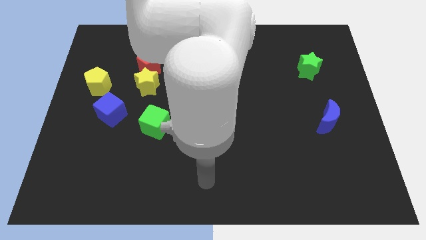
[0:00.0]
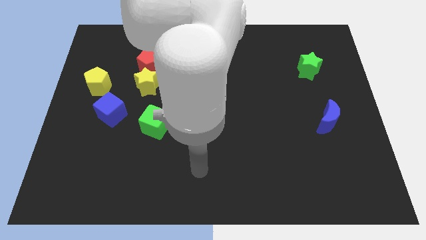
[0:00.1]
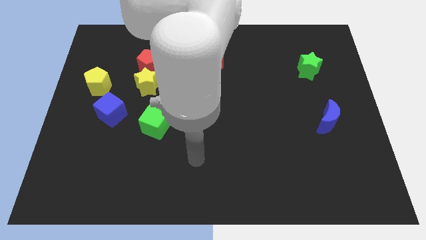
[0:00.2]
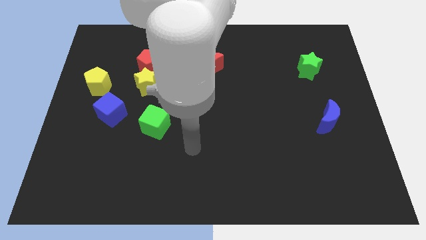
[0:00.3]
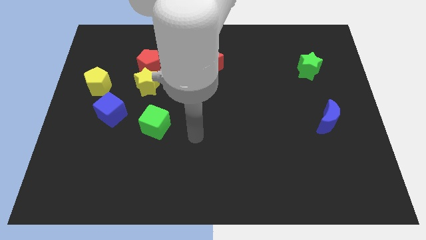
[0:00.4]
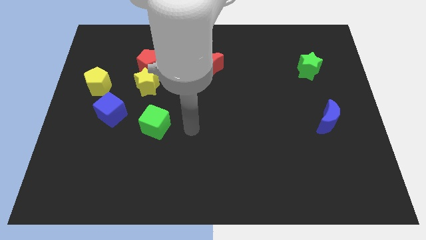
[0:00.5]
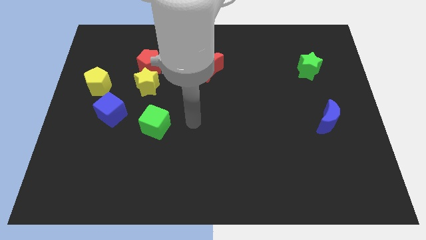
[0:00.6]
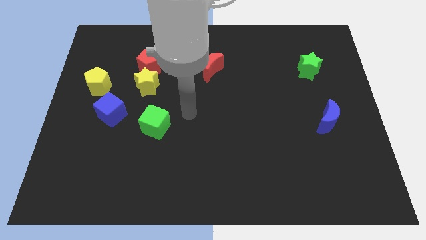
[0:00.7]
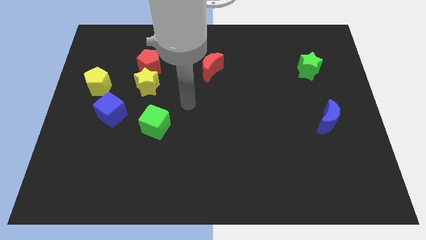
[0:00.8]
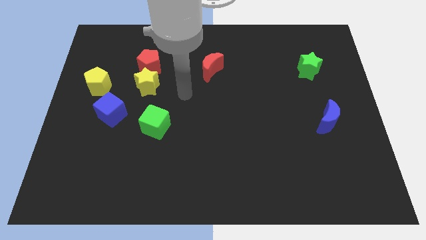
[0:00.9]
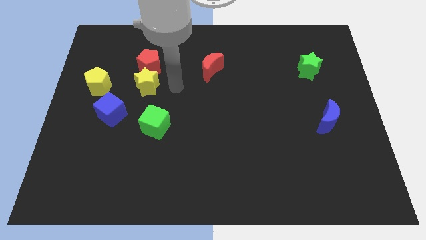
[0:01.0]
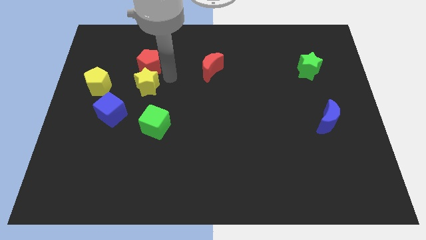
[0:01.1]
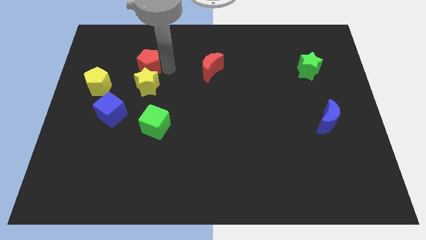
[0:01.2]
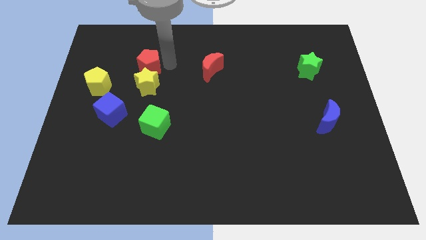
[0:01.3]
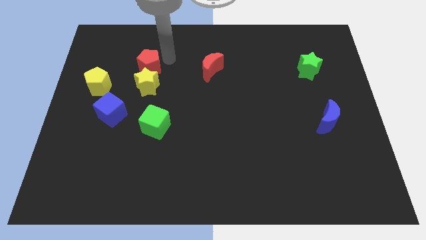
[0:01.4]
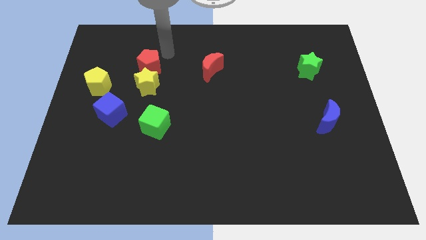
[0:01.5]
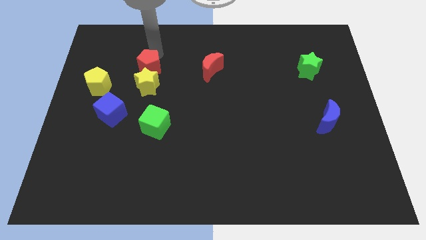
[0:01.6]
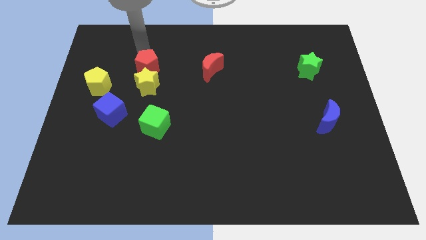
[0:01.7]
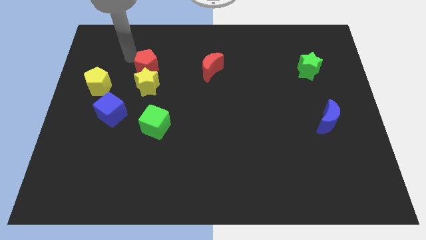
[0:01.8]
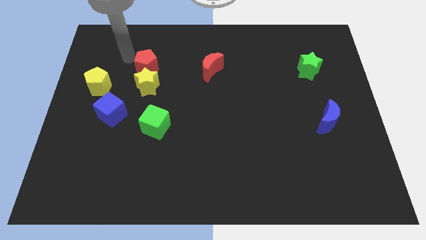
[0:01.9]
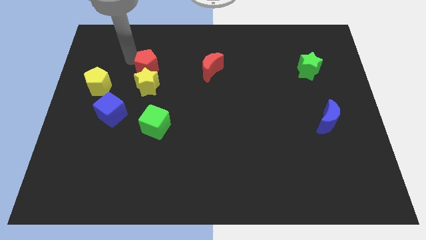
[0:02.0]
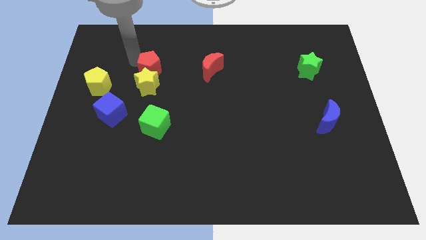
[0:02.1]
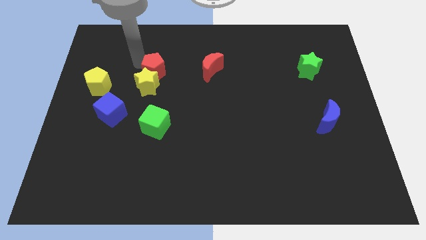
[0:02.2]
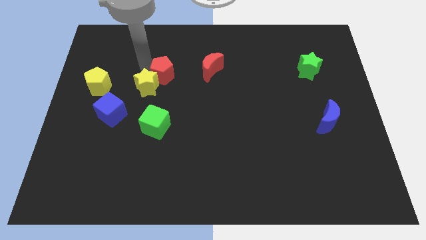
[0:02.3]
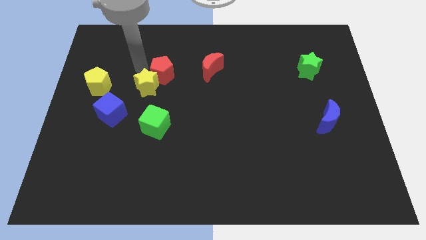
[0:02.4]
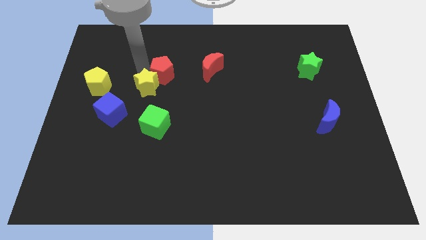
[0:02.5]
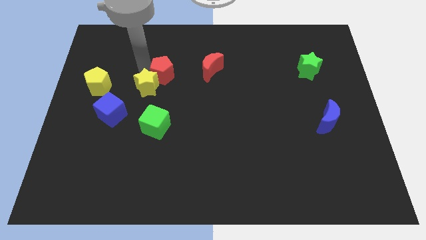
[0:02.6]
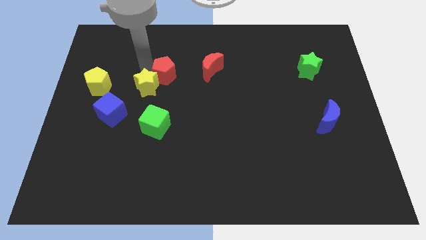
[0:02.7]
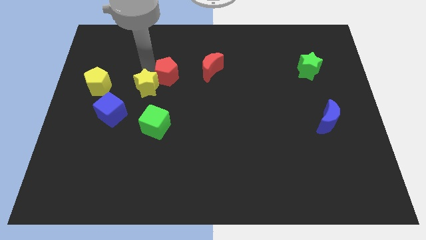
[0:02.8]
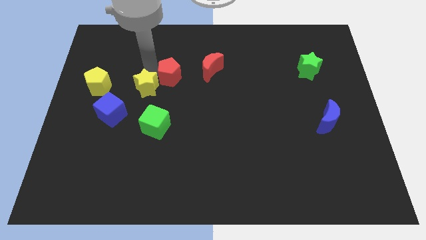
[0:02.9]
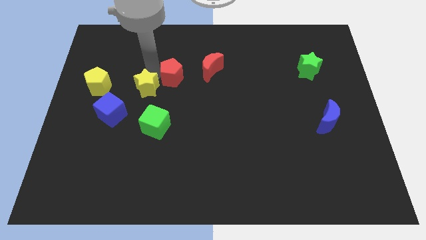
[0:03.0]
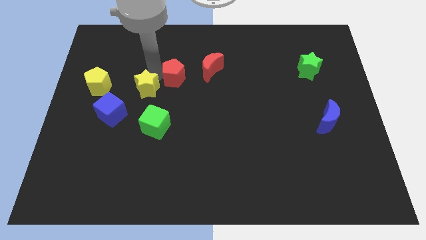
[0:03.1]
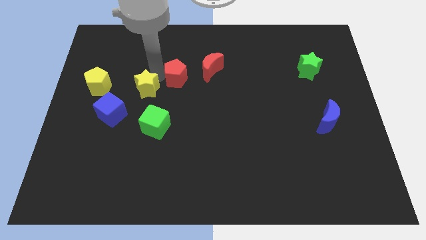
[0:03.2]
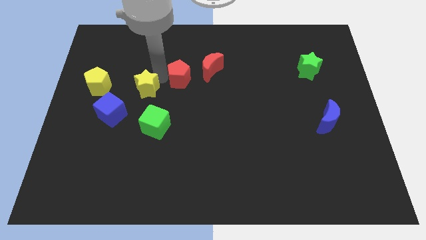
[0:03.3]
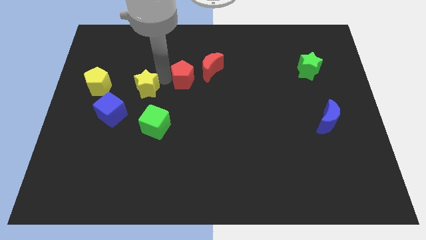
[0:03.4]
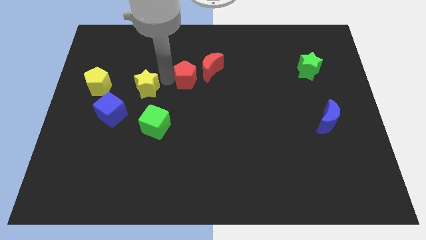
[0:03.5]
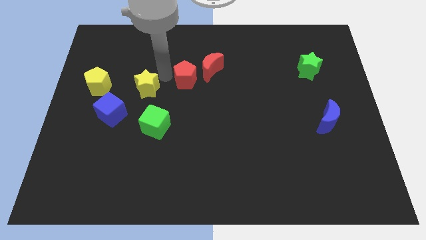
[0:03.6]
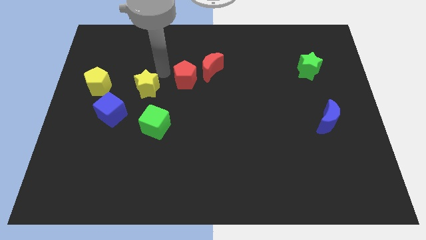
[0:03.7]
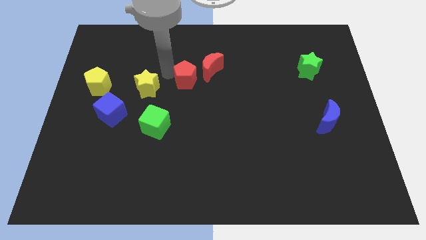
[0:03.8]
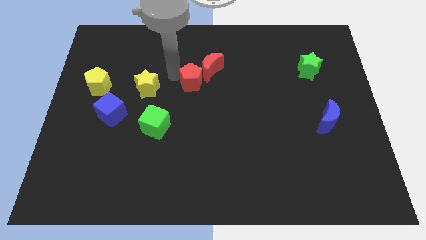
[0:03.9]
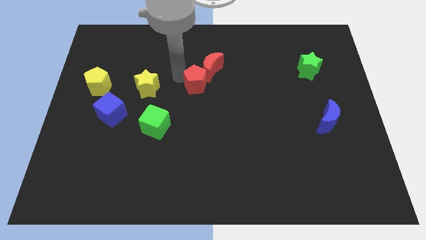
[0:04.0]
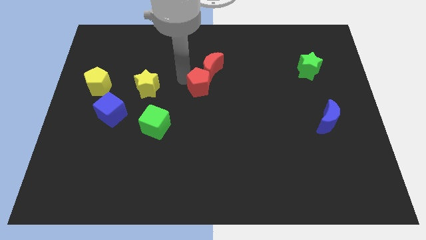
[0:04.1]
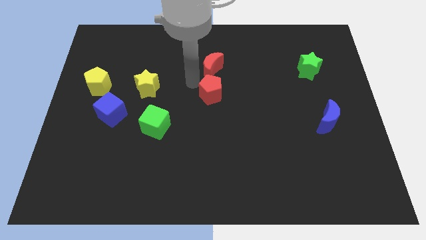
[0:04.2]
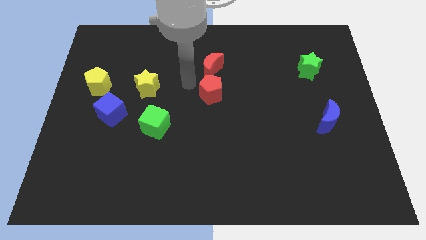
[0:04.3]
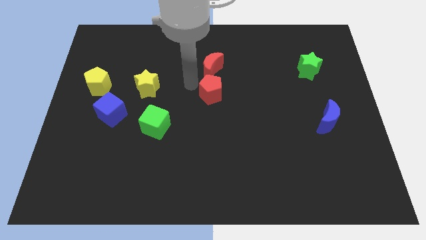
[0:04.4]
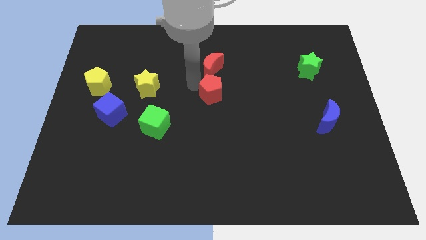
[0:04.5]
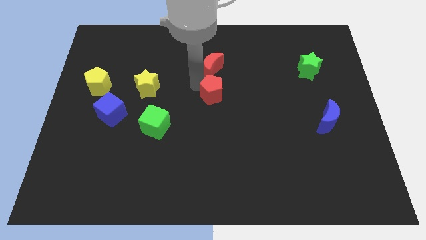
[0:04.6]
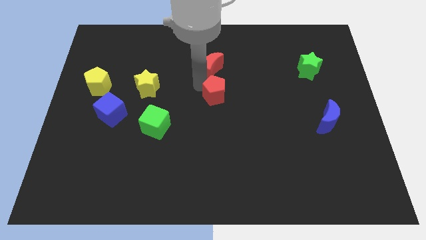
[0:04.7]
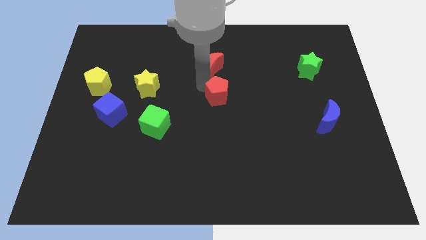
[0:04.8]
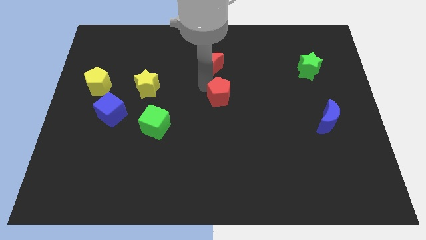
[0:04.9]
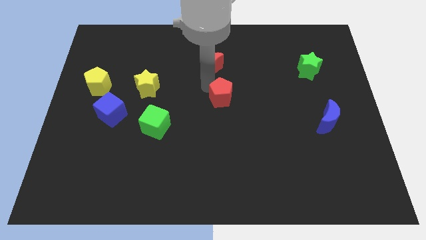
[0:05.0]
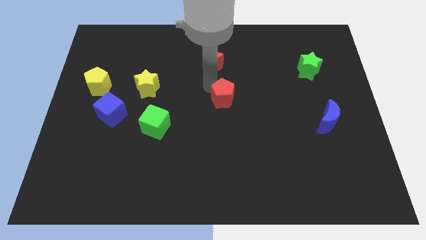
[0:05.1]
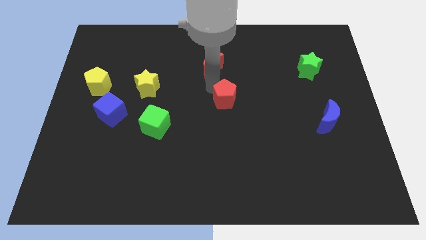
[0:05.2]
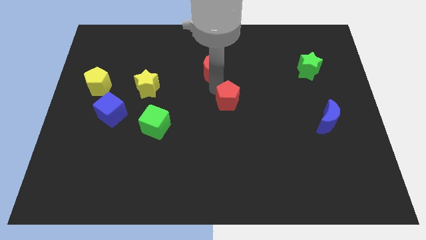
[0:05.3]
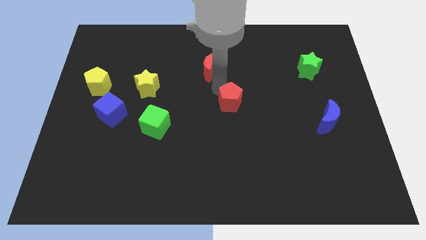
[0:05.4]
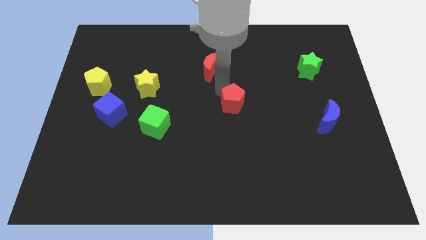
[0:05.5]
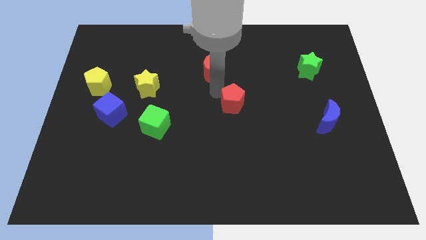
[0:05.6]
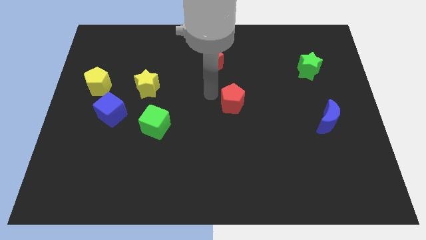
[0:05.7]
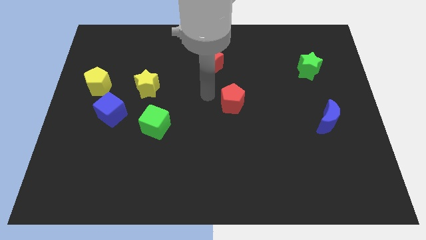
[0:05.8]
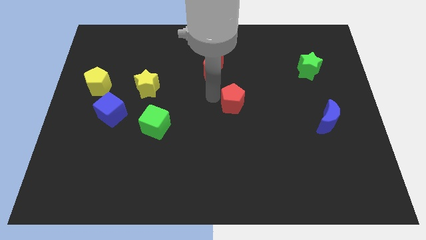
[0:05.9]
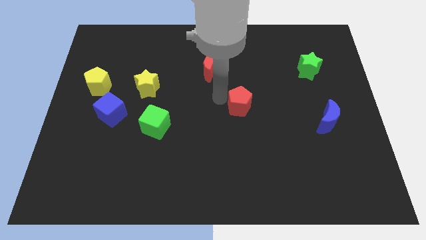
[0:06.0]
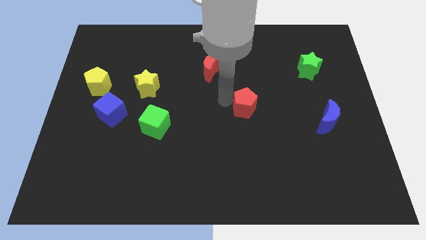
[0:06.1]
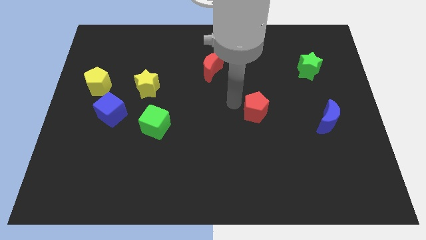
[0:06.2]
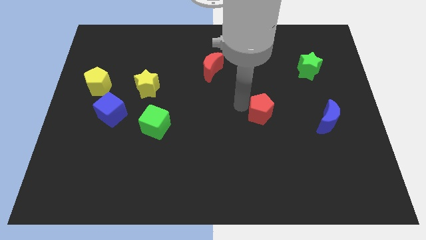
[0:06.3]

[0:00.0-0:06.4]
slide the red pentagon left of the blue moon

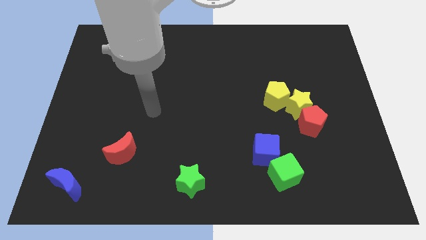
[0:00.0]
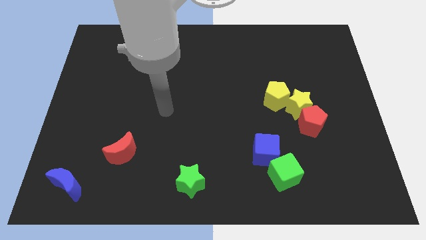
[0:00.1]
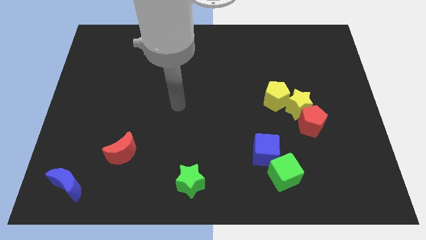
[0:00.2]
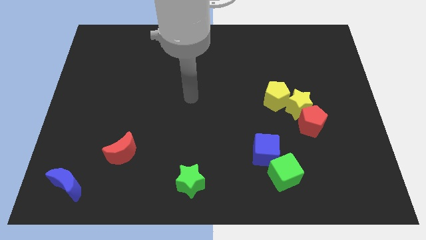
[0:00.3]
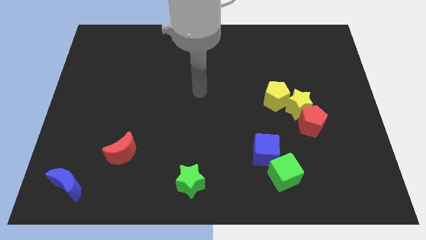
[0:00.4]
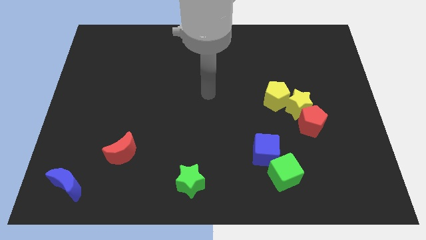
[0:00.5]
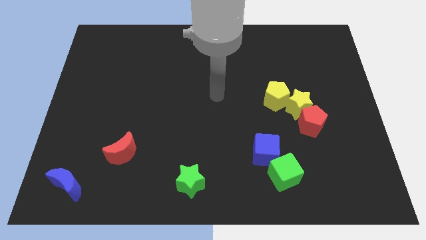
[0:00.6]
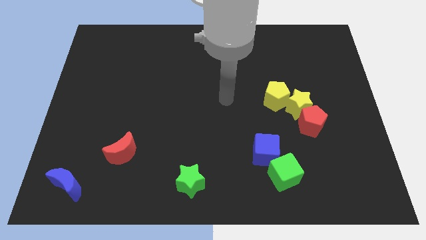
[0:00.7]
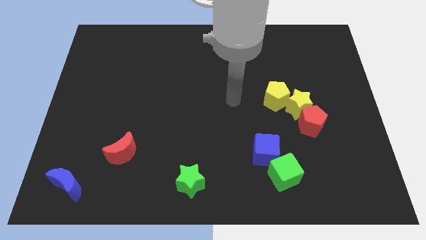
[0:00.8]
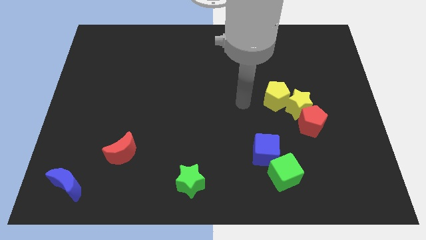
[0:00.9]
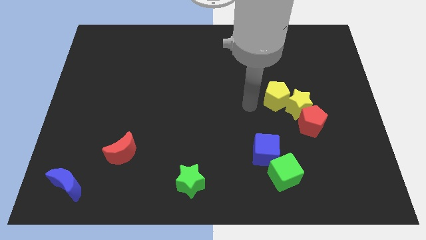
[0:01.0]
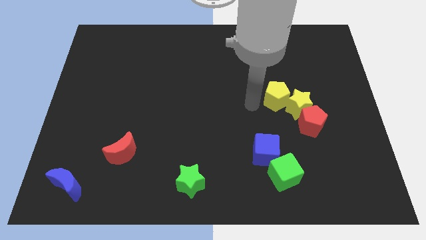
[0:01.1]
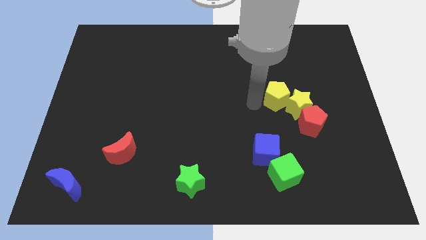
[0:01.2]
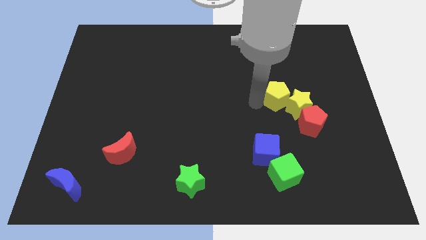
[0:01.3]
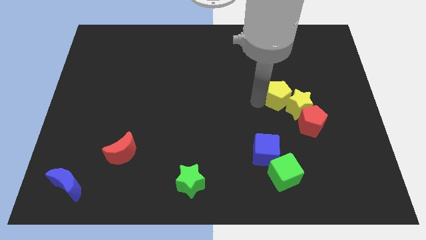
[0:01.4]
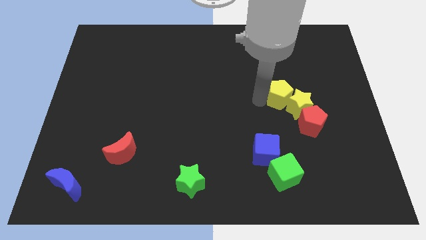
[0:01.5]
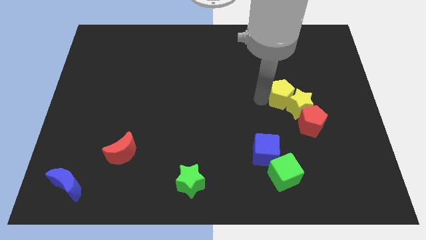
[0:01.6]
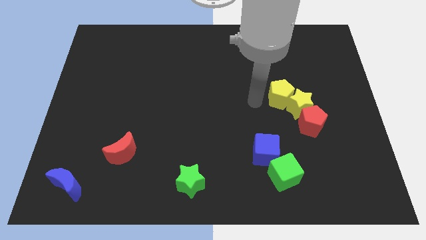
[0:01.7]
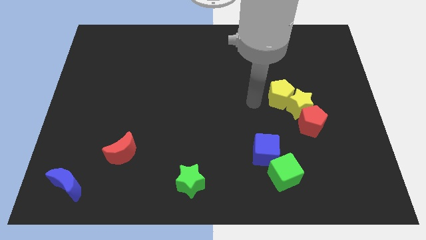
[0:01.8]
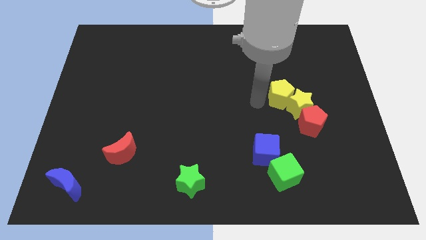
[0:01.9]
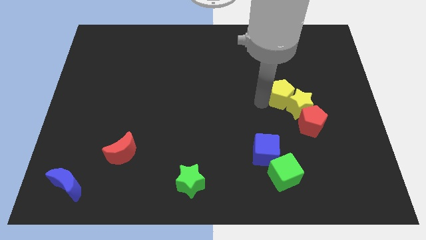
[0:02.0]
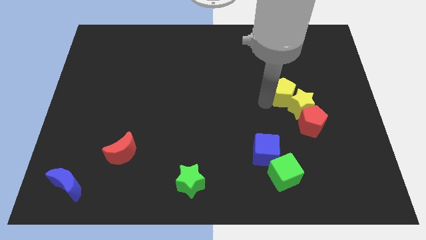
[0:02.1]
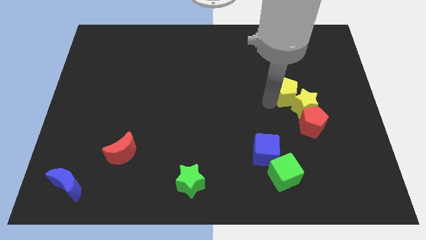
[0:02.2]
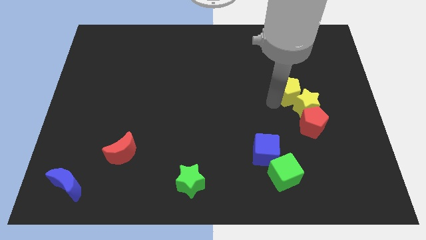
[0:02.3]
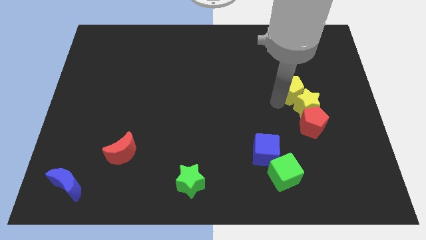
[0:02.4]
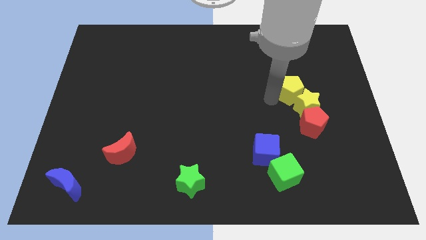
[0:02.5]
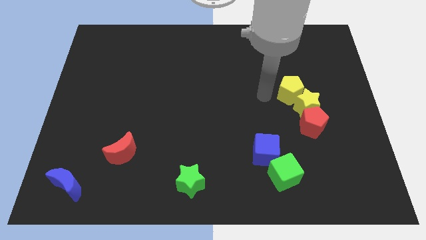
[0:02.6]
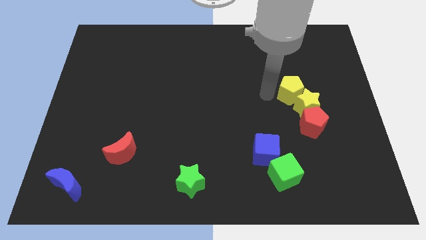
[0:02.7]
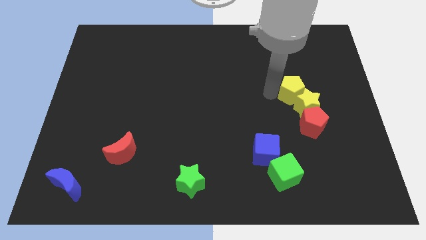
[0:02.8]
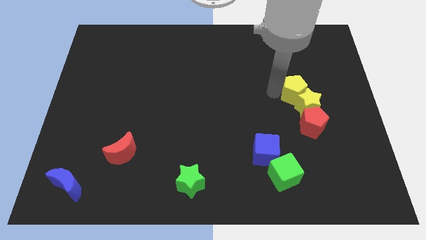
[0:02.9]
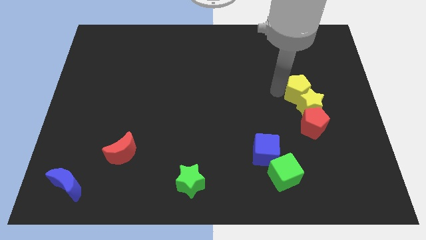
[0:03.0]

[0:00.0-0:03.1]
push the yellow pentagon to the top right of the yellow star
